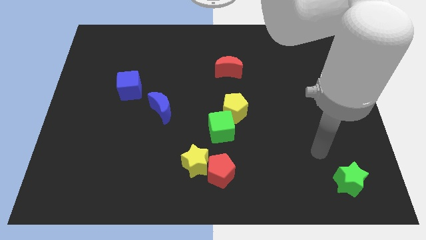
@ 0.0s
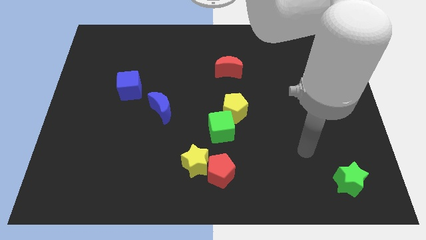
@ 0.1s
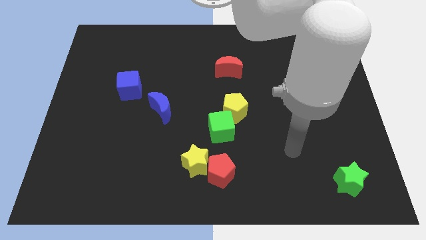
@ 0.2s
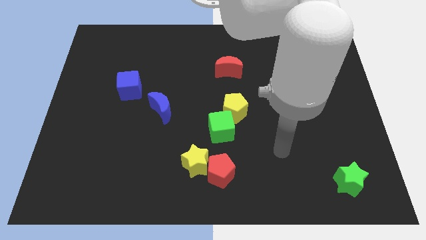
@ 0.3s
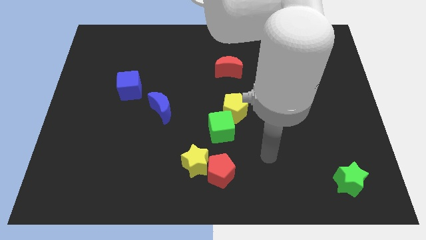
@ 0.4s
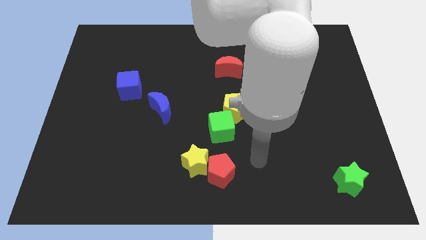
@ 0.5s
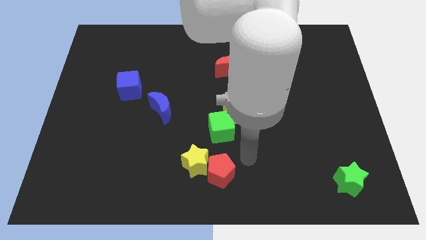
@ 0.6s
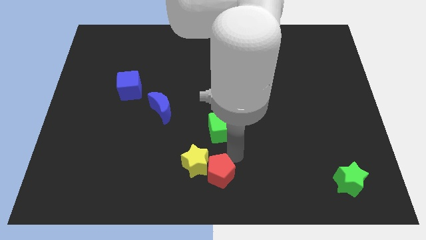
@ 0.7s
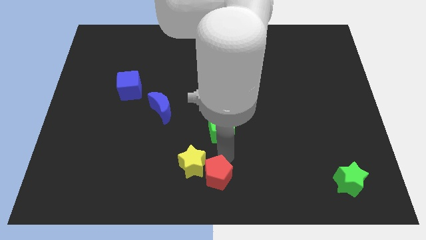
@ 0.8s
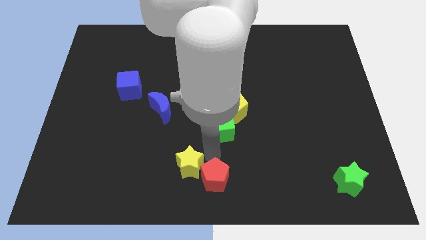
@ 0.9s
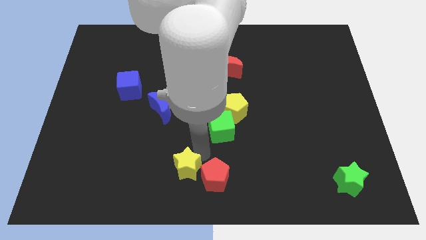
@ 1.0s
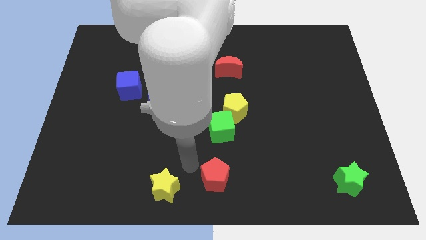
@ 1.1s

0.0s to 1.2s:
pull the red pentagon apart from the yellow star

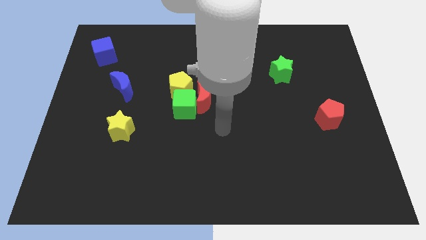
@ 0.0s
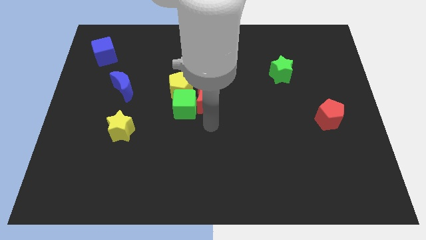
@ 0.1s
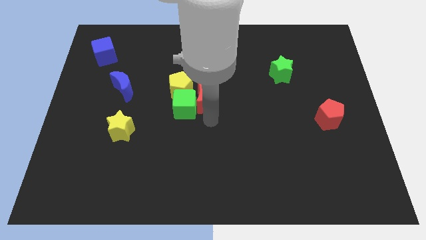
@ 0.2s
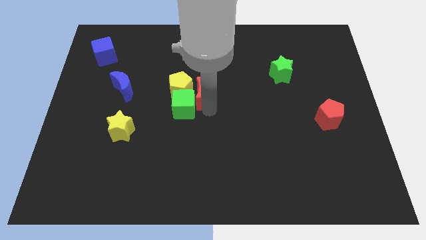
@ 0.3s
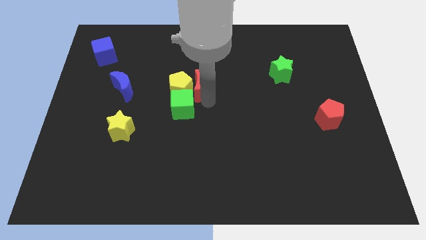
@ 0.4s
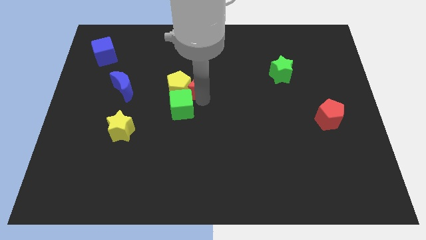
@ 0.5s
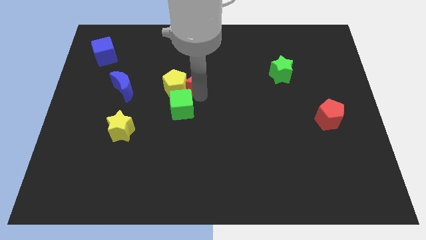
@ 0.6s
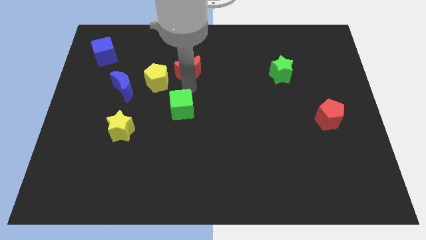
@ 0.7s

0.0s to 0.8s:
pull the green cube apart from the red moon and yellow pentagon

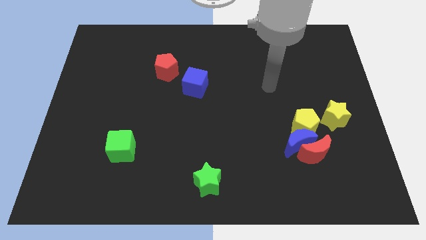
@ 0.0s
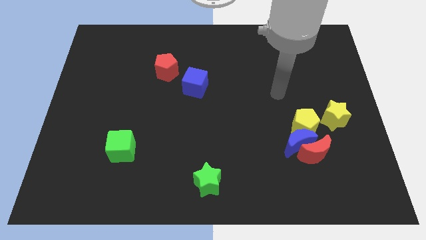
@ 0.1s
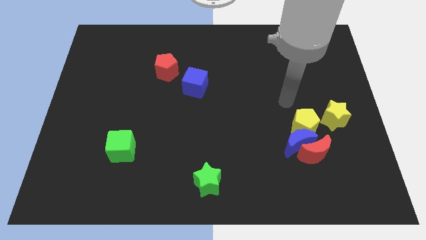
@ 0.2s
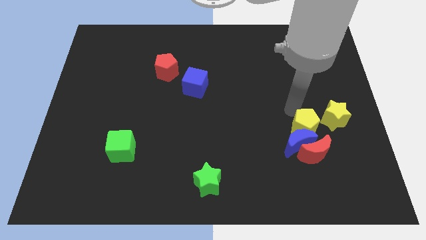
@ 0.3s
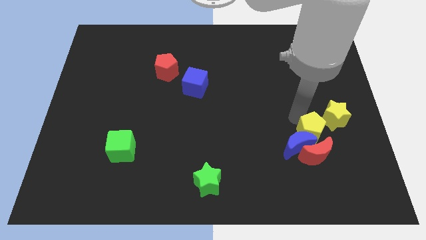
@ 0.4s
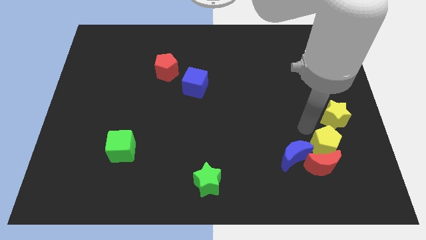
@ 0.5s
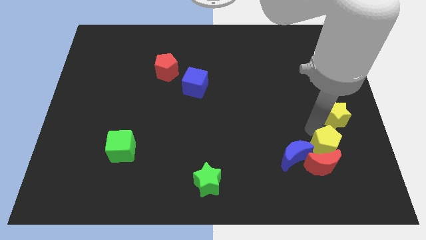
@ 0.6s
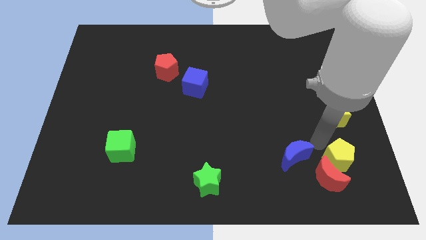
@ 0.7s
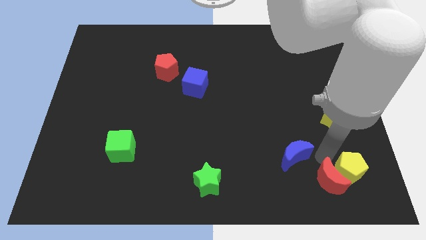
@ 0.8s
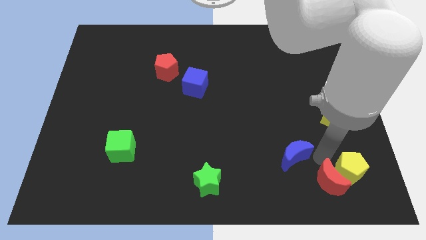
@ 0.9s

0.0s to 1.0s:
move the blue moon away from the red moon and yellow pentagon

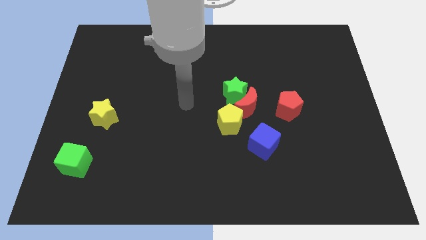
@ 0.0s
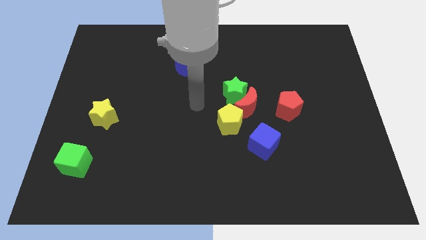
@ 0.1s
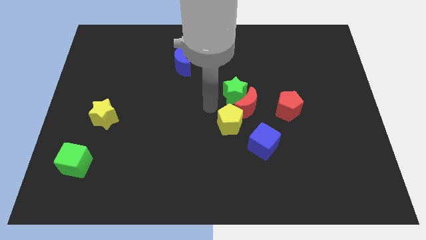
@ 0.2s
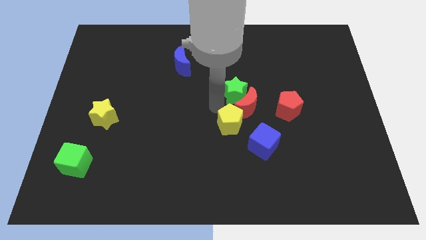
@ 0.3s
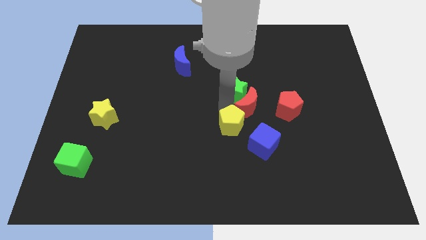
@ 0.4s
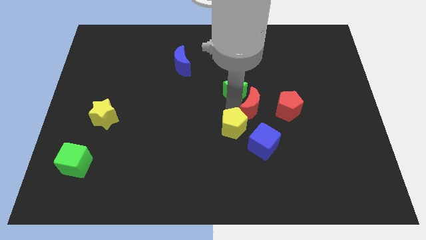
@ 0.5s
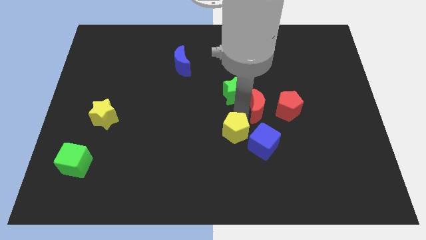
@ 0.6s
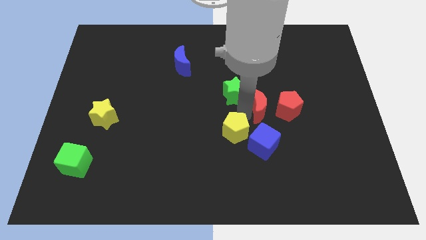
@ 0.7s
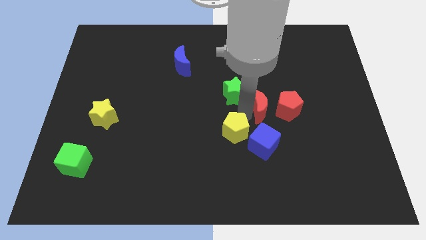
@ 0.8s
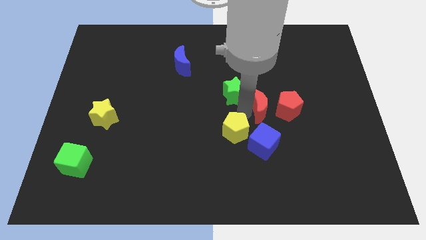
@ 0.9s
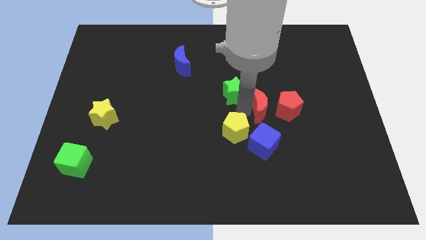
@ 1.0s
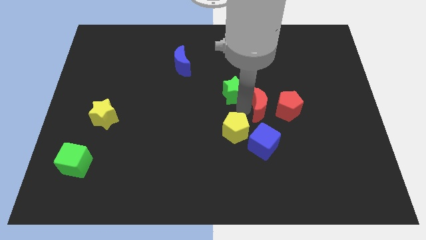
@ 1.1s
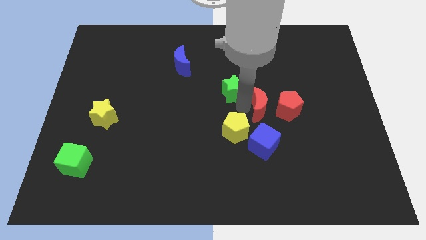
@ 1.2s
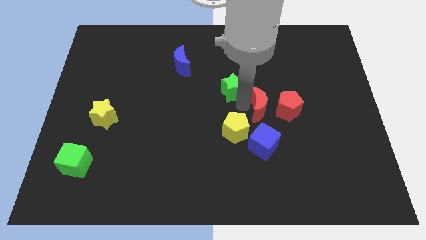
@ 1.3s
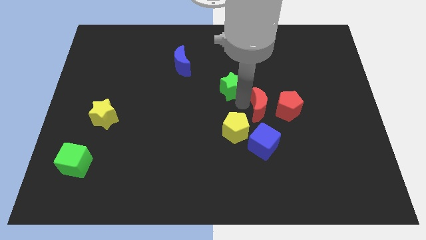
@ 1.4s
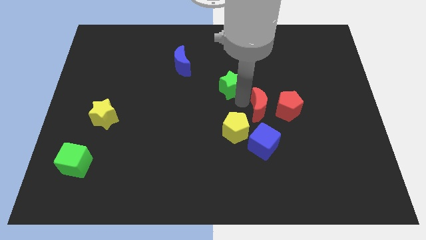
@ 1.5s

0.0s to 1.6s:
move the green star away from the red moon and yellow pentagon

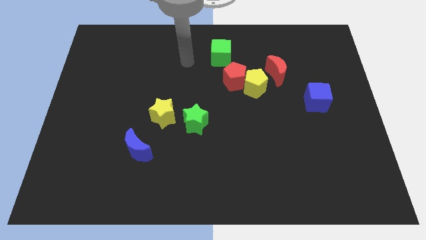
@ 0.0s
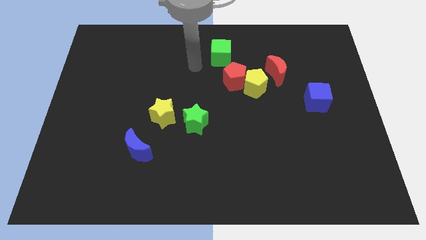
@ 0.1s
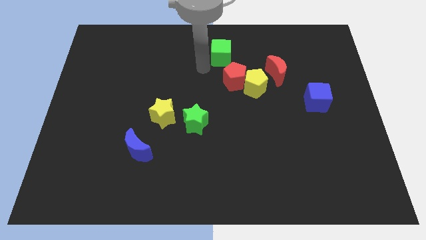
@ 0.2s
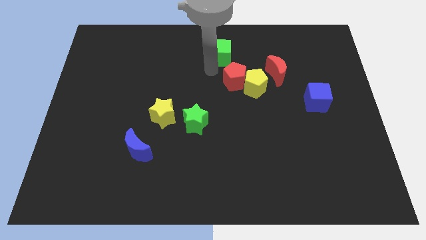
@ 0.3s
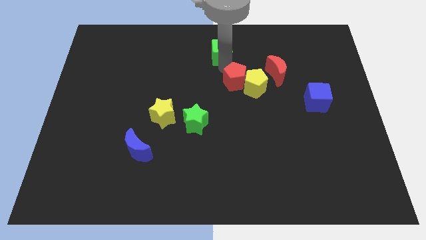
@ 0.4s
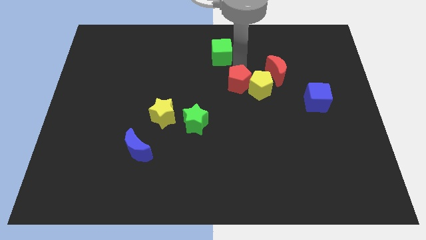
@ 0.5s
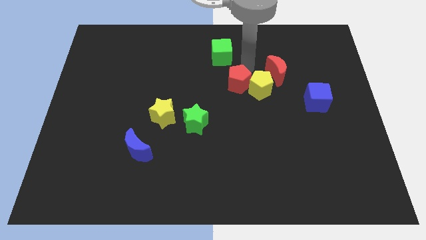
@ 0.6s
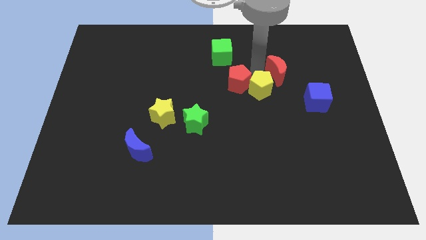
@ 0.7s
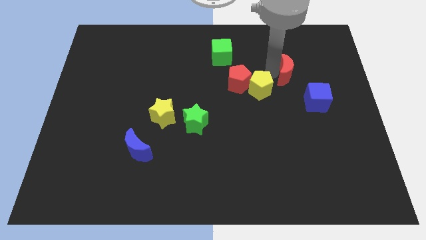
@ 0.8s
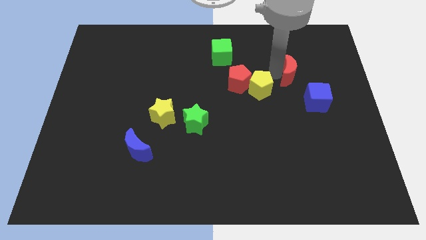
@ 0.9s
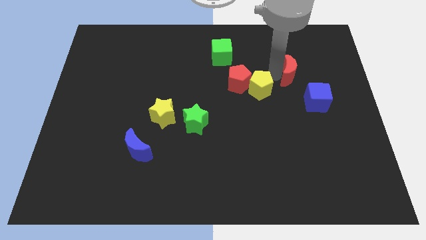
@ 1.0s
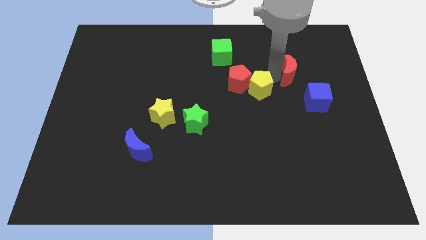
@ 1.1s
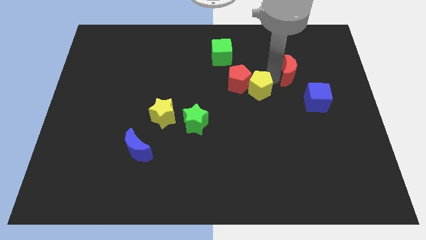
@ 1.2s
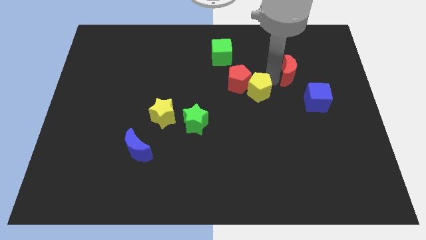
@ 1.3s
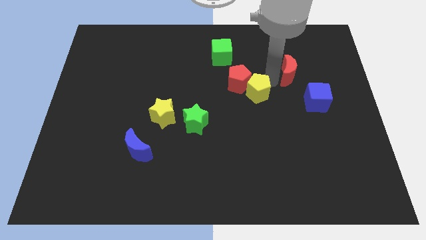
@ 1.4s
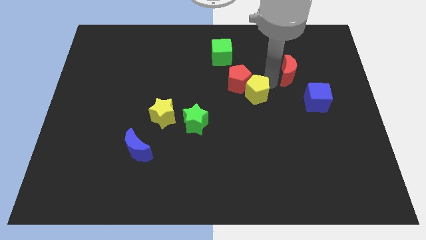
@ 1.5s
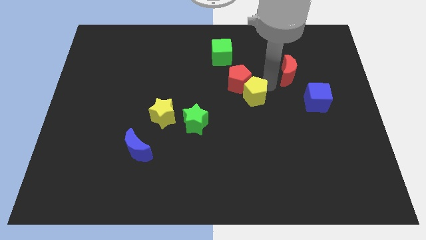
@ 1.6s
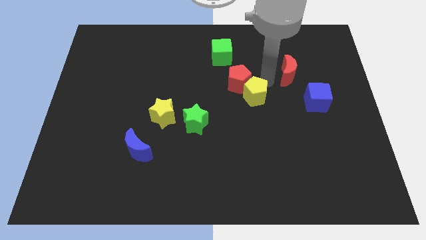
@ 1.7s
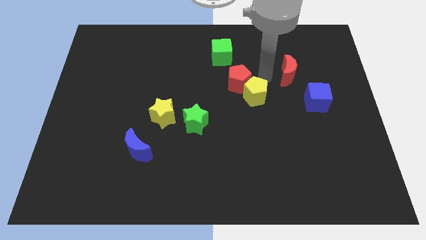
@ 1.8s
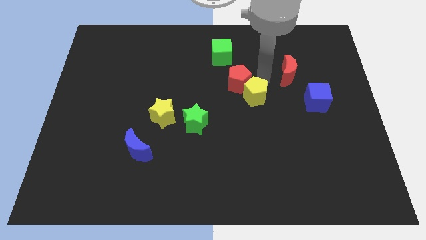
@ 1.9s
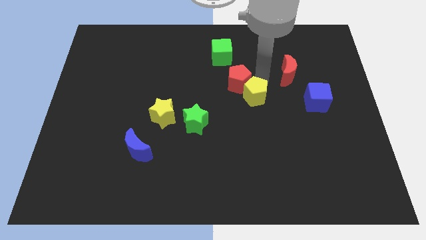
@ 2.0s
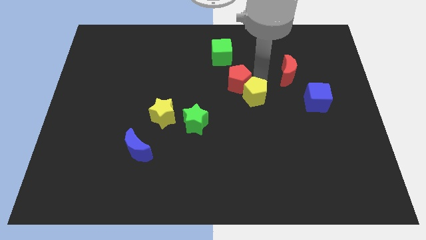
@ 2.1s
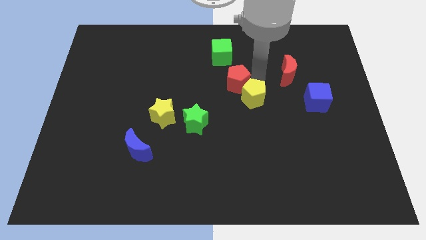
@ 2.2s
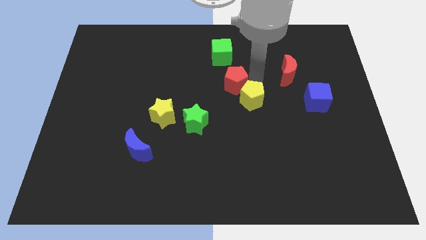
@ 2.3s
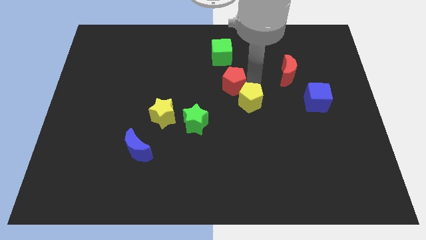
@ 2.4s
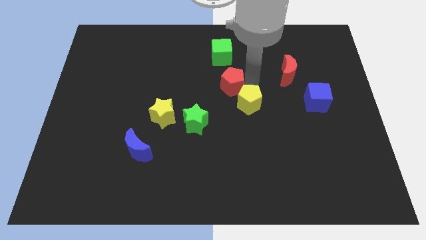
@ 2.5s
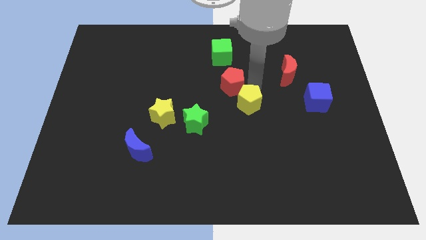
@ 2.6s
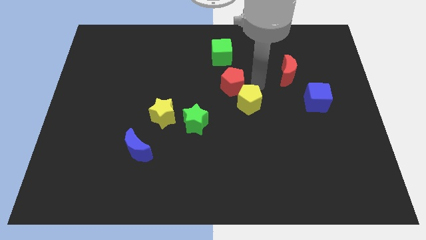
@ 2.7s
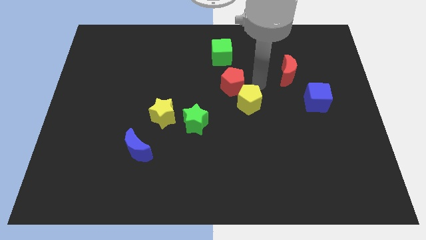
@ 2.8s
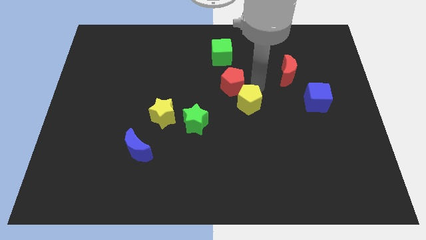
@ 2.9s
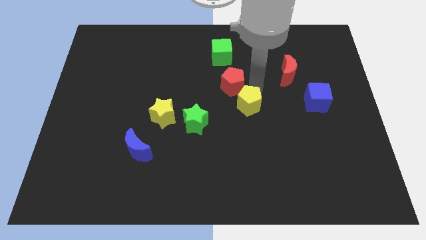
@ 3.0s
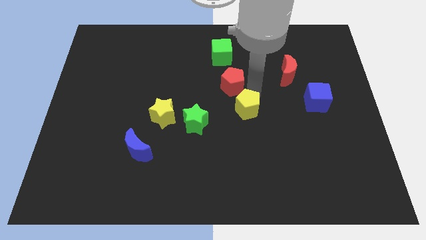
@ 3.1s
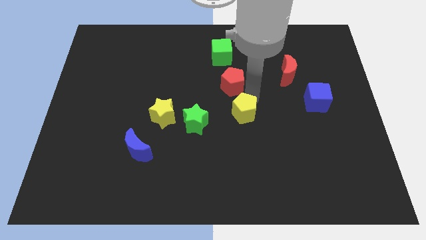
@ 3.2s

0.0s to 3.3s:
pull the yellow pentagon apart from the red pentagon and red moon

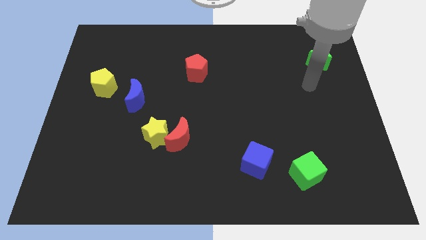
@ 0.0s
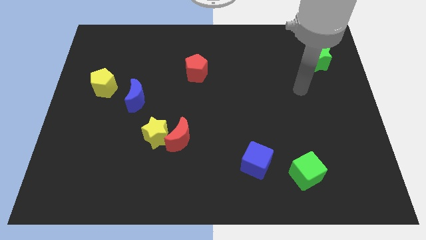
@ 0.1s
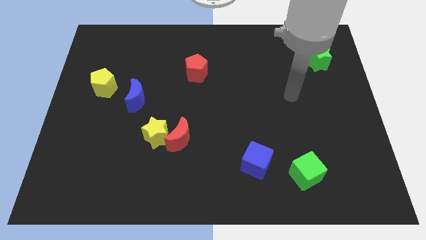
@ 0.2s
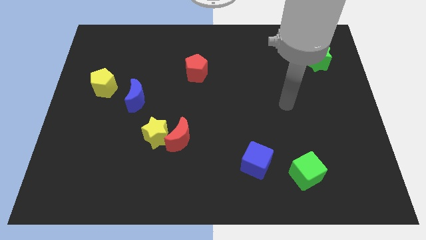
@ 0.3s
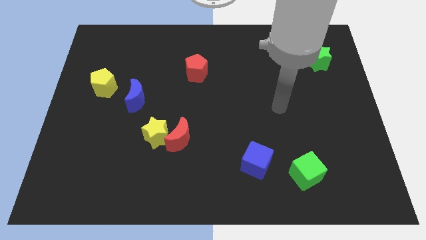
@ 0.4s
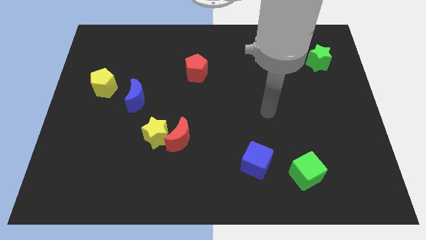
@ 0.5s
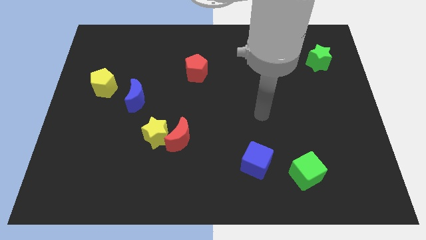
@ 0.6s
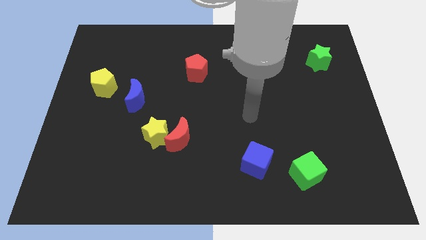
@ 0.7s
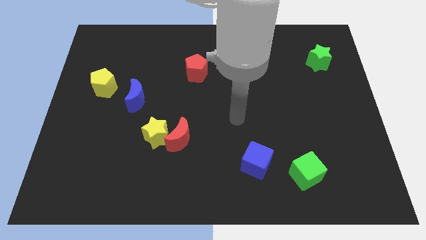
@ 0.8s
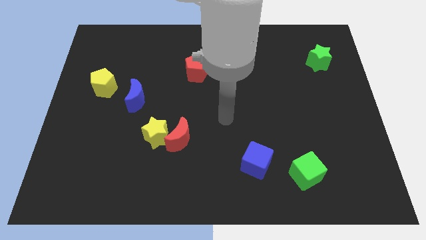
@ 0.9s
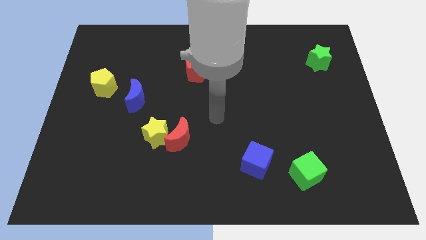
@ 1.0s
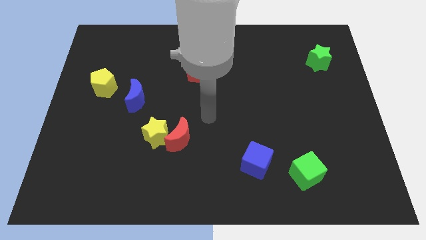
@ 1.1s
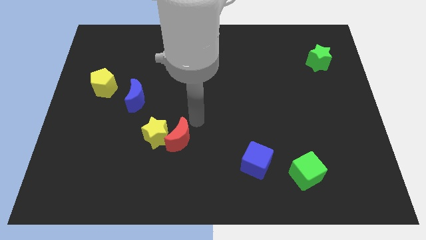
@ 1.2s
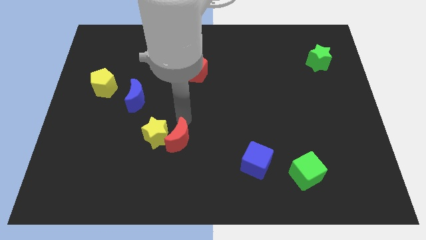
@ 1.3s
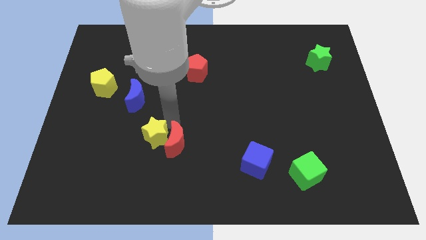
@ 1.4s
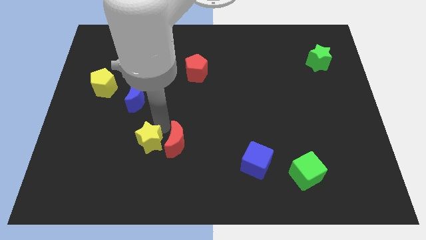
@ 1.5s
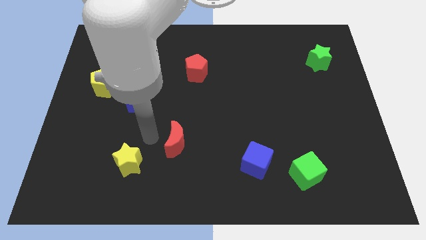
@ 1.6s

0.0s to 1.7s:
separate the red moon from the yellow star
